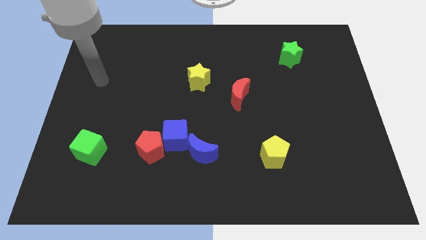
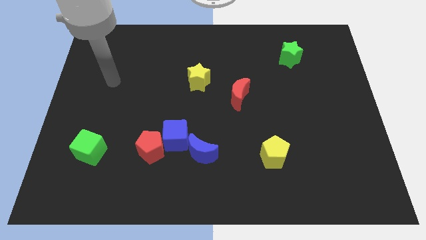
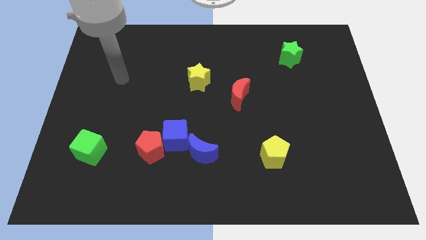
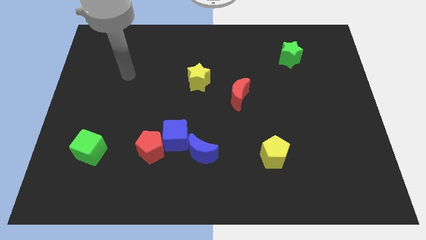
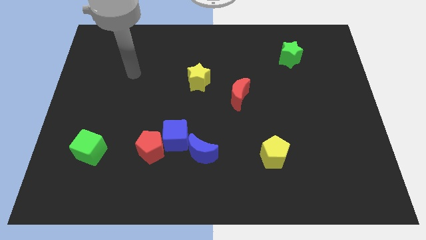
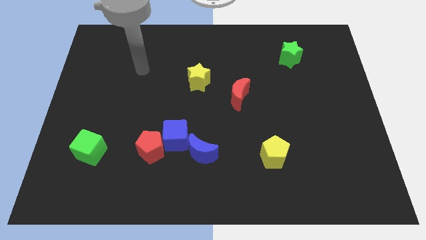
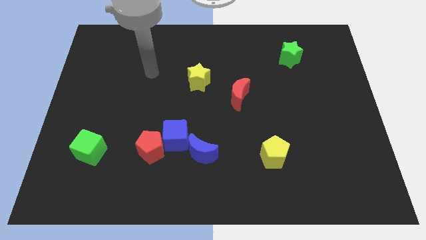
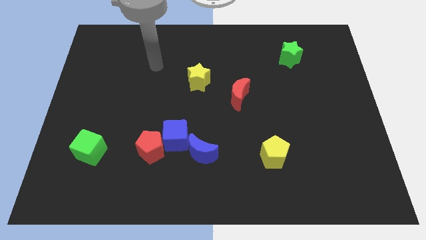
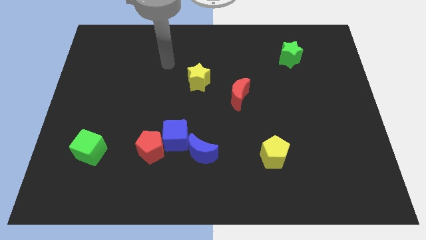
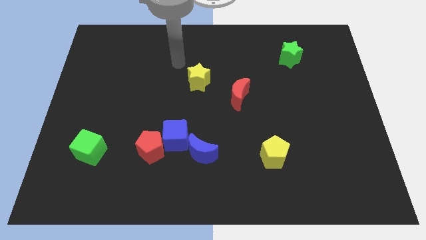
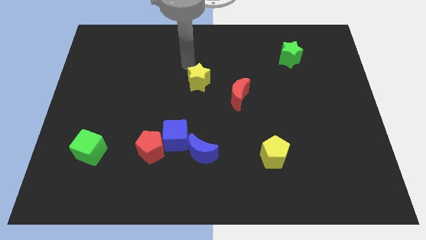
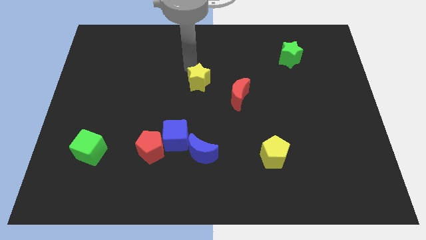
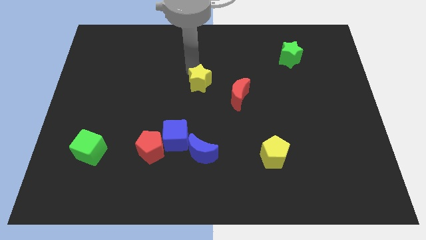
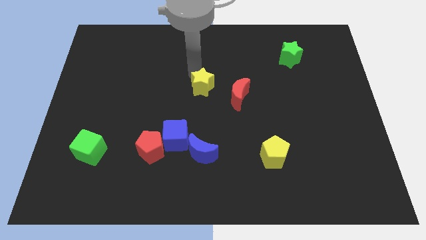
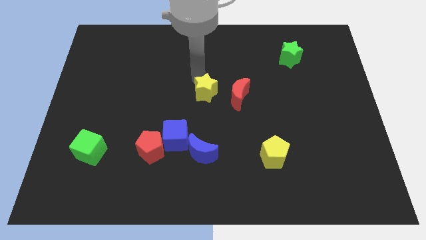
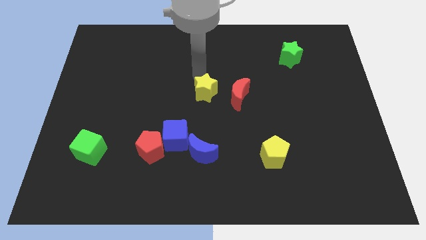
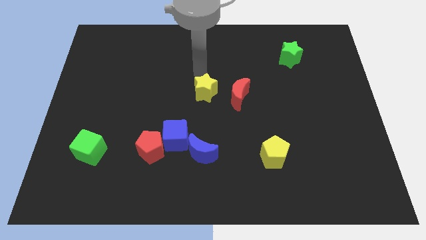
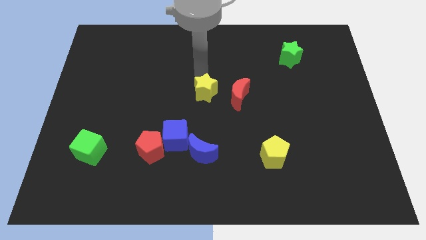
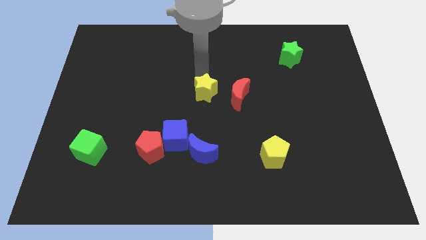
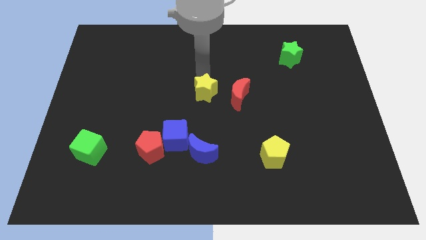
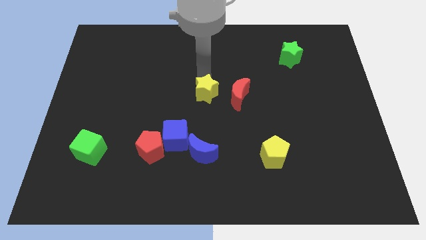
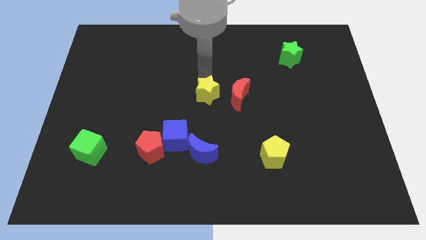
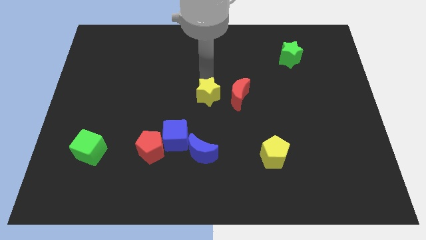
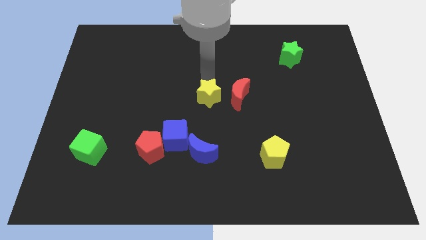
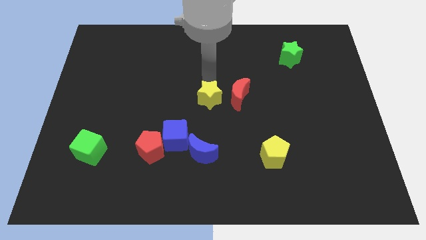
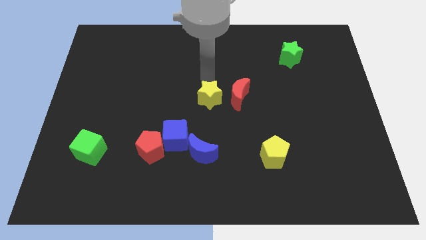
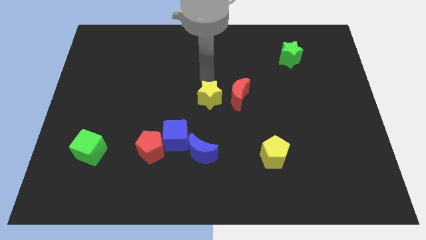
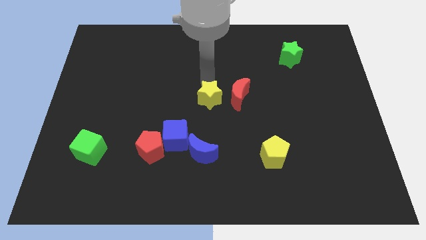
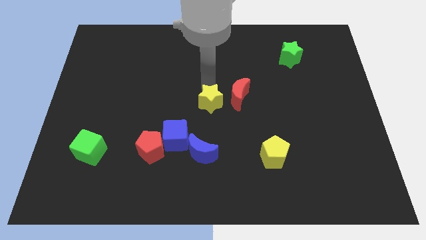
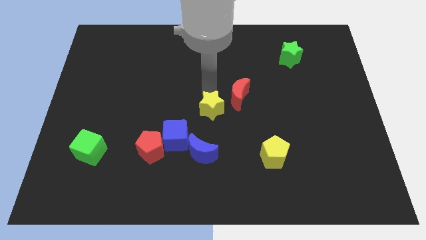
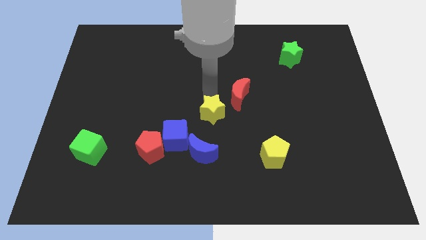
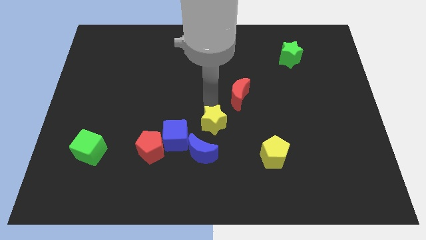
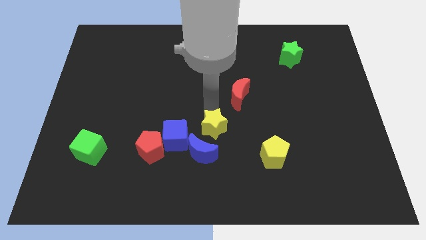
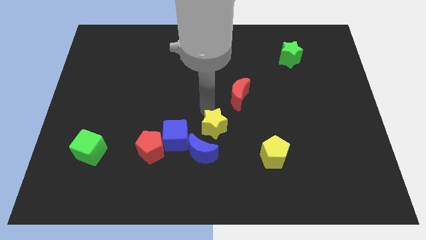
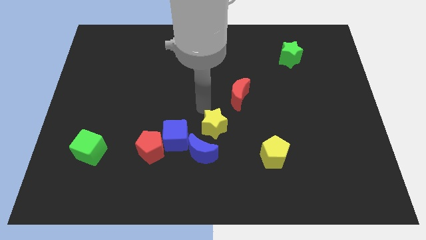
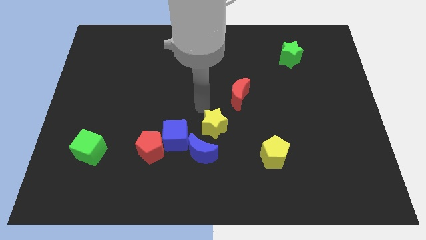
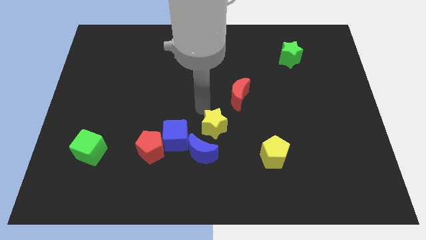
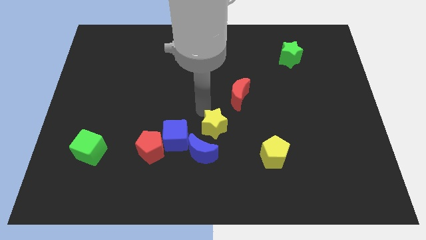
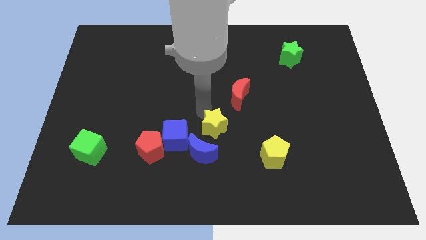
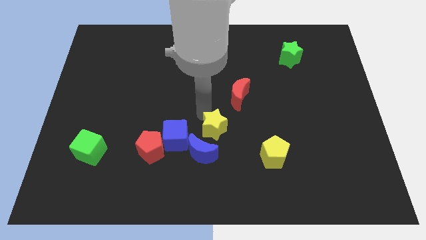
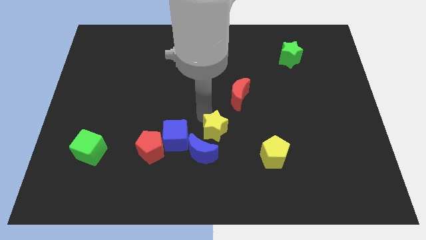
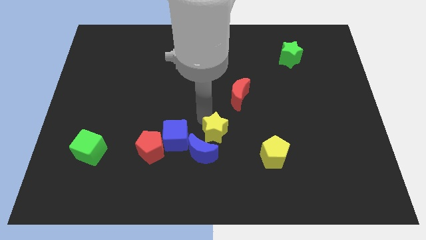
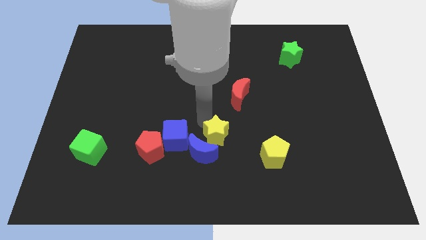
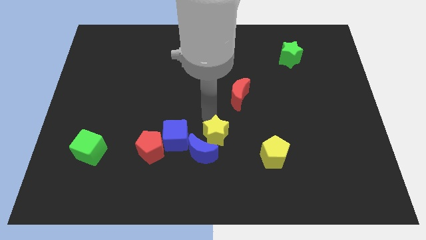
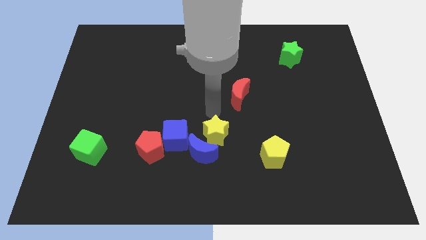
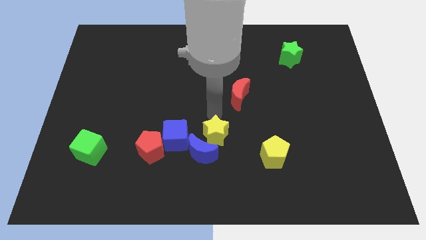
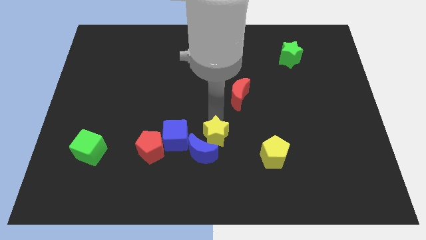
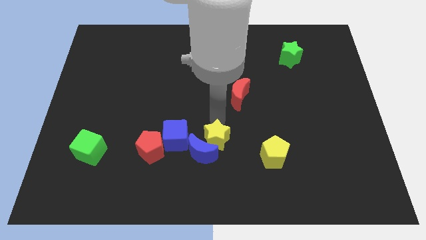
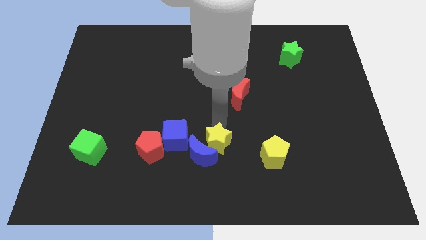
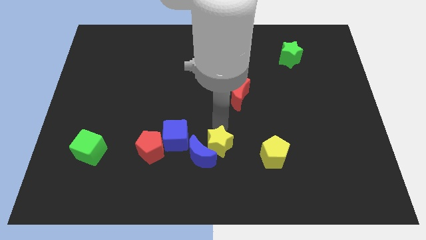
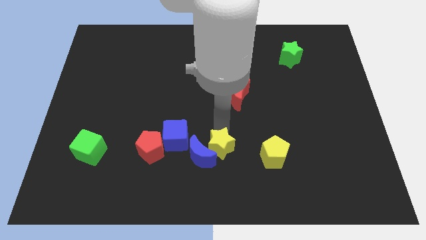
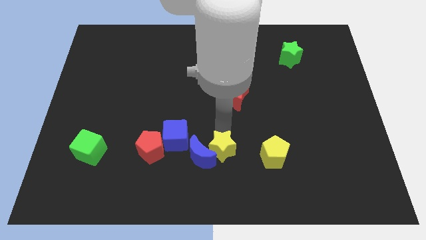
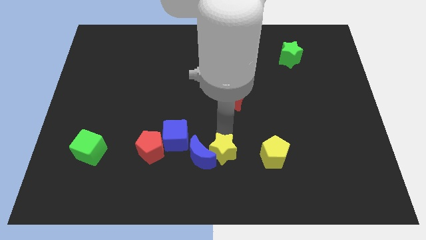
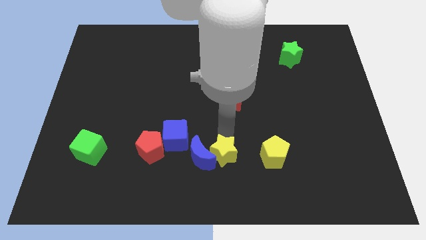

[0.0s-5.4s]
put the yellow star to the bottom

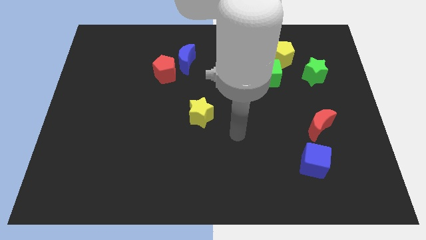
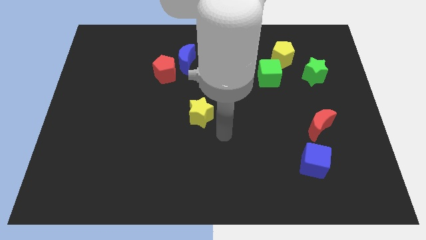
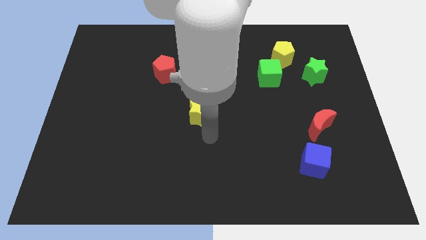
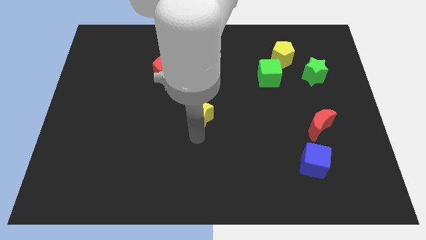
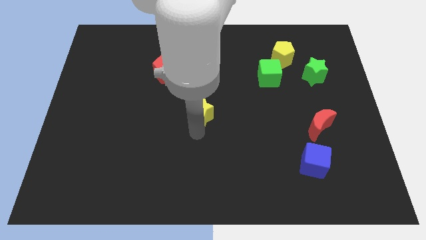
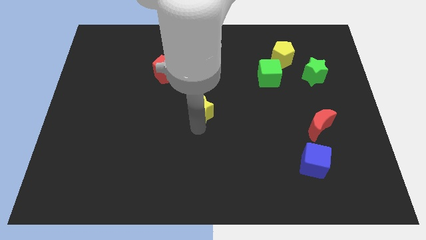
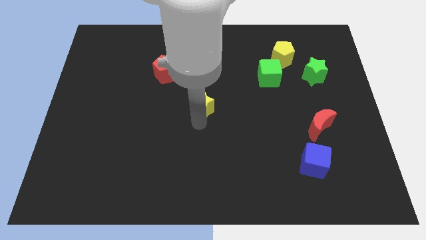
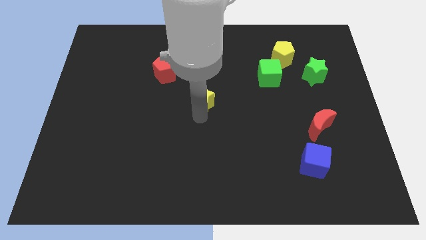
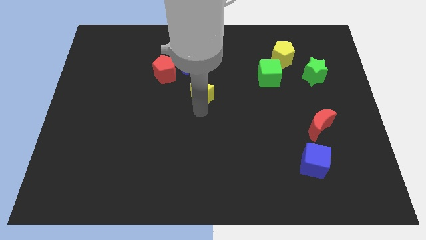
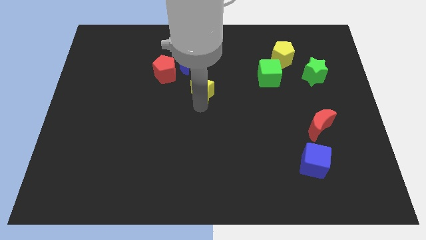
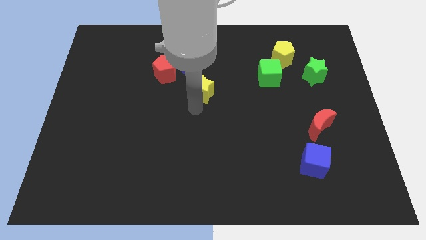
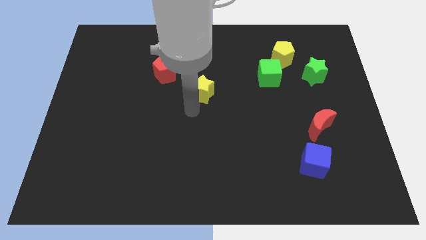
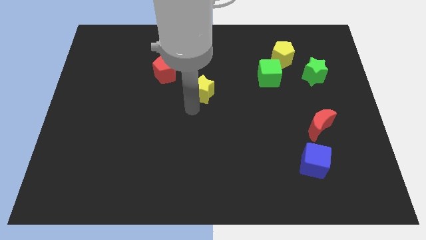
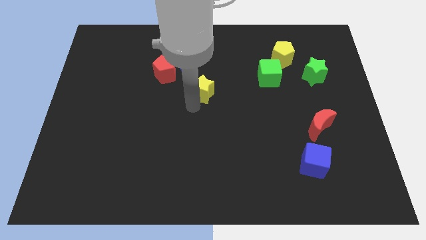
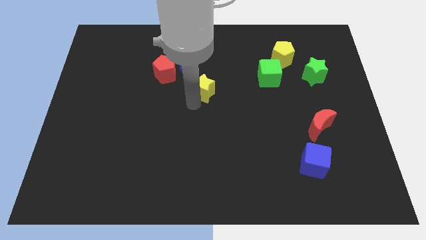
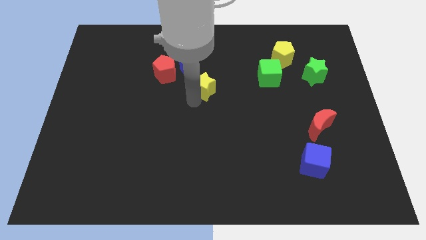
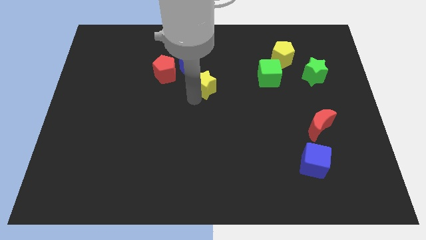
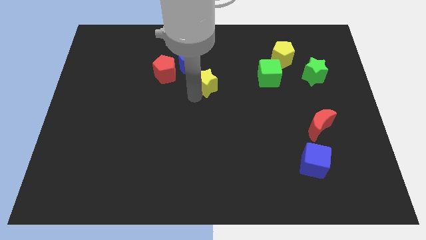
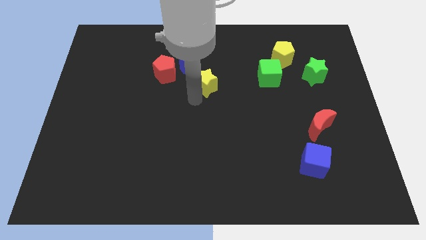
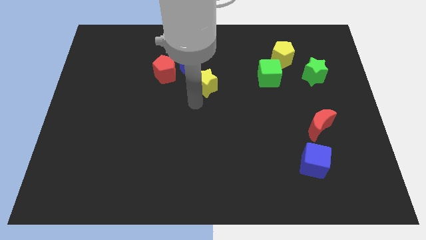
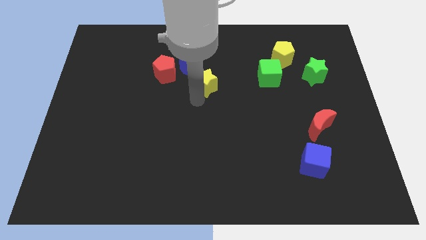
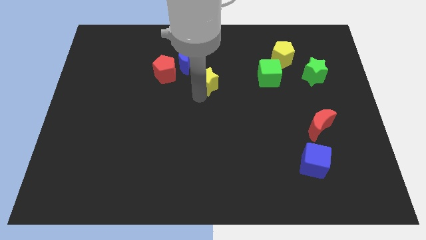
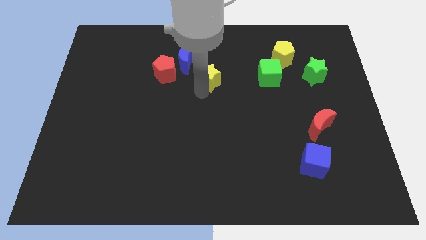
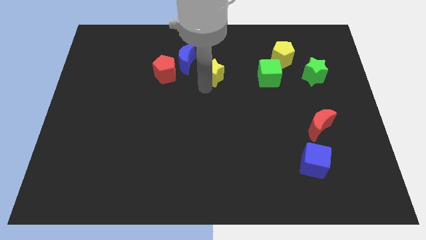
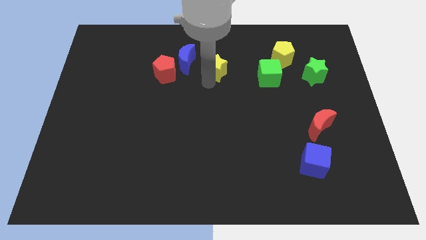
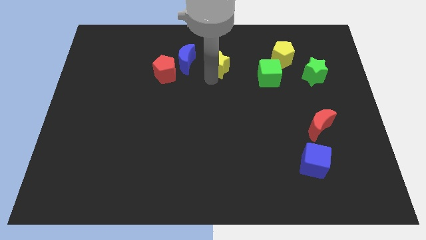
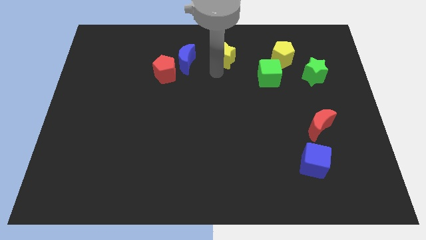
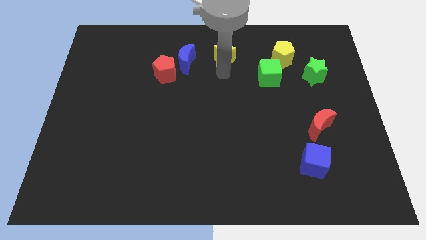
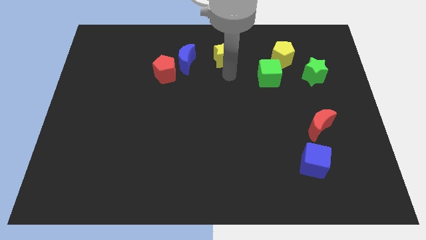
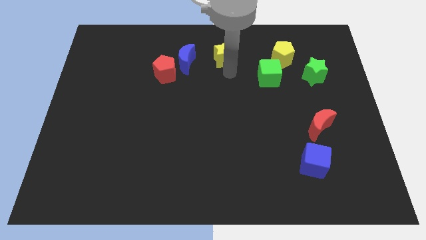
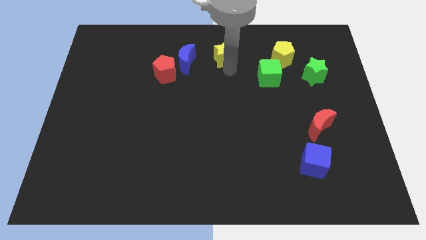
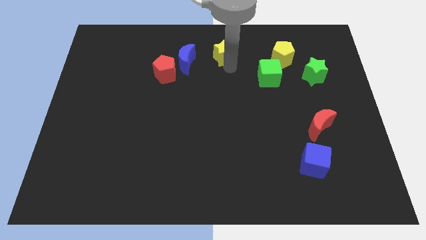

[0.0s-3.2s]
move the yellow star to the top side
